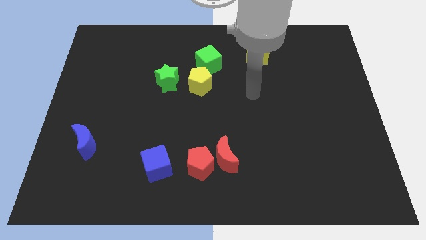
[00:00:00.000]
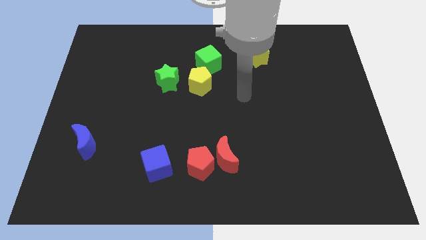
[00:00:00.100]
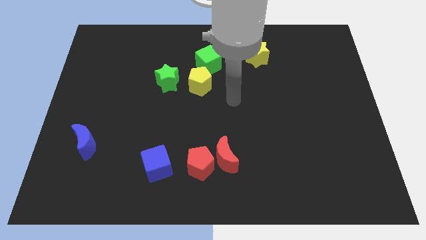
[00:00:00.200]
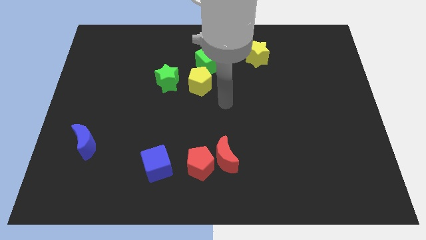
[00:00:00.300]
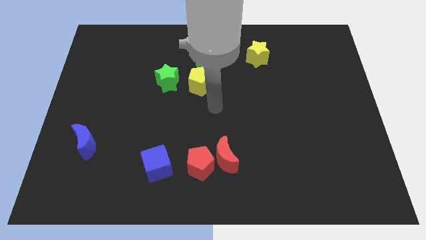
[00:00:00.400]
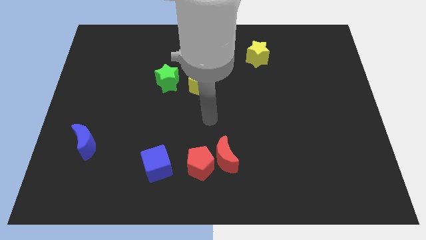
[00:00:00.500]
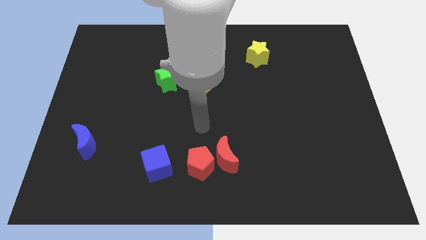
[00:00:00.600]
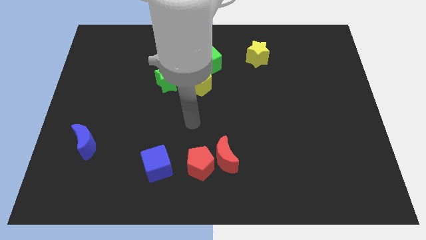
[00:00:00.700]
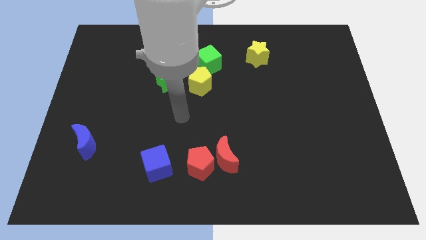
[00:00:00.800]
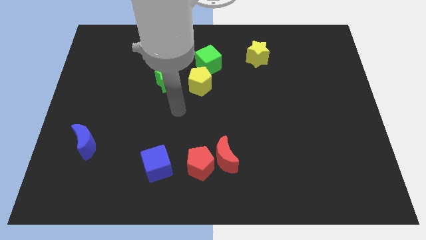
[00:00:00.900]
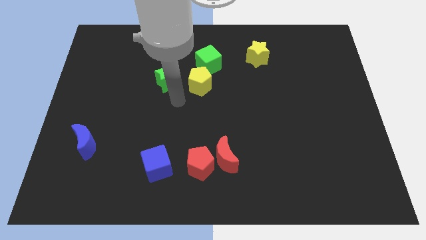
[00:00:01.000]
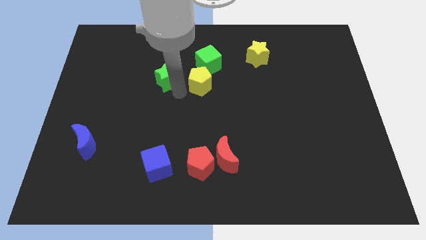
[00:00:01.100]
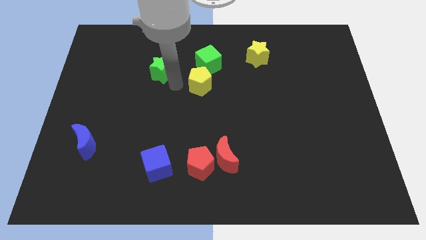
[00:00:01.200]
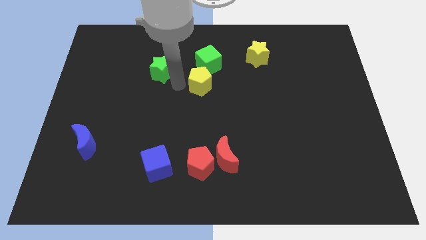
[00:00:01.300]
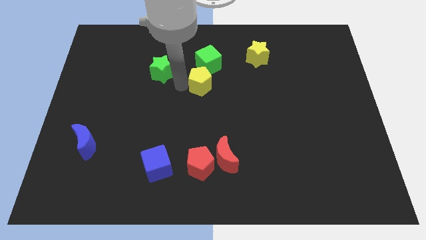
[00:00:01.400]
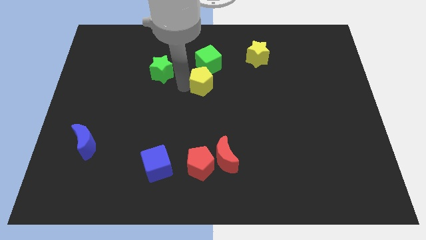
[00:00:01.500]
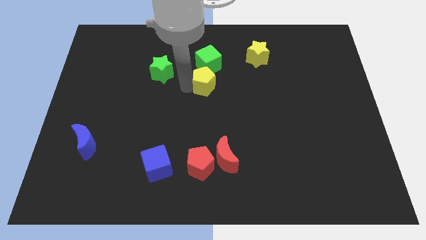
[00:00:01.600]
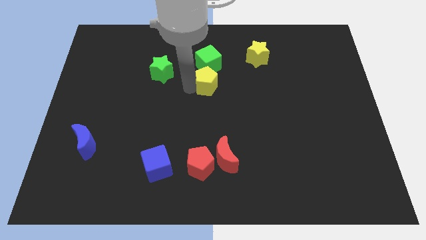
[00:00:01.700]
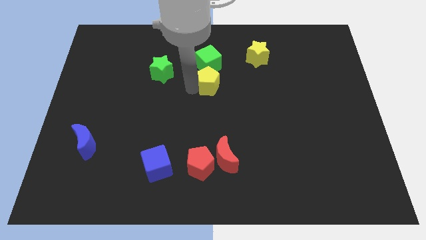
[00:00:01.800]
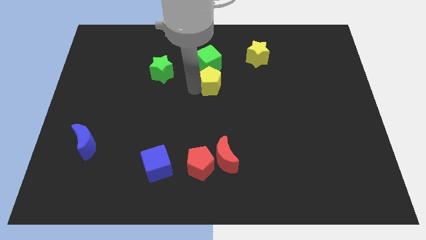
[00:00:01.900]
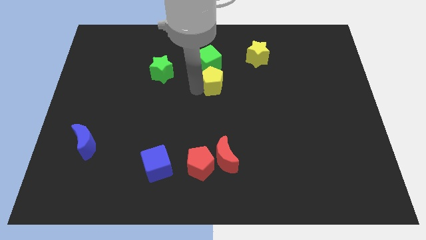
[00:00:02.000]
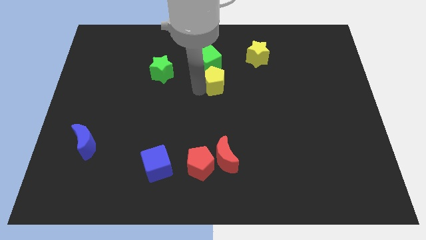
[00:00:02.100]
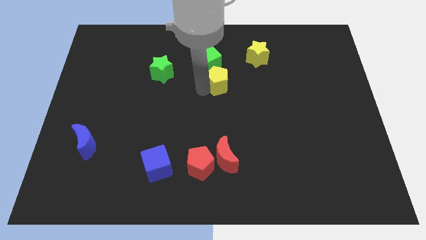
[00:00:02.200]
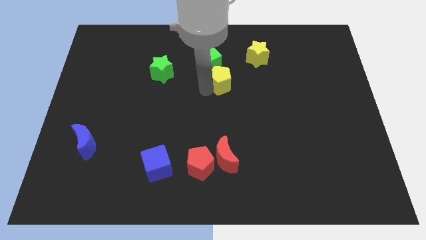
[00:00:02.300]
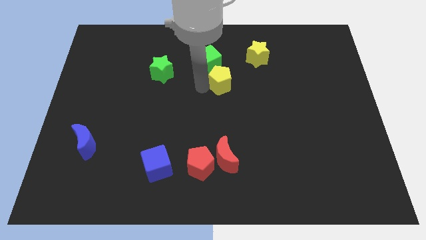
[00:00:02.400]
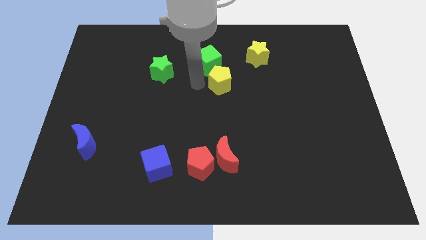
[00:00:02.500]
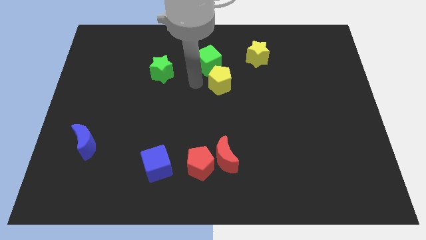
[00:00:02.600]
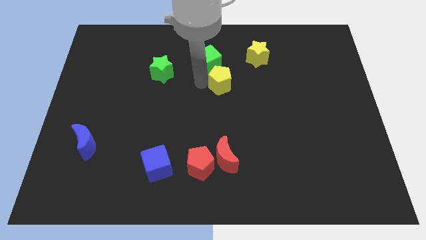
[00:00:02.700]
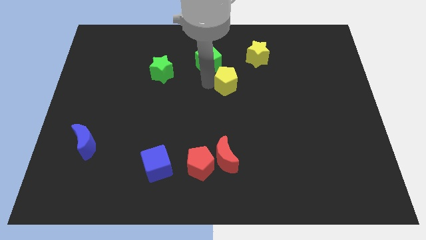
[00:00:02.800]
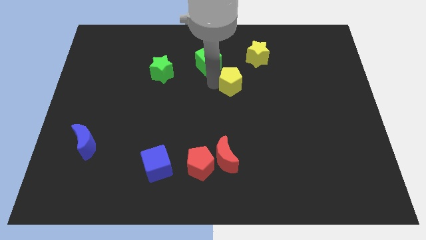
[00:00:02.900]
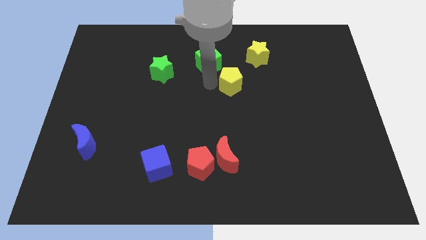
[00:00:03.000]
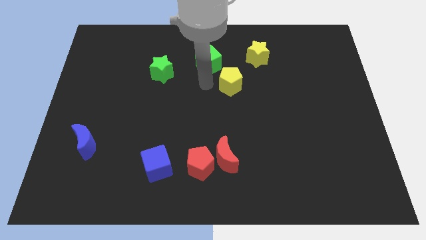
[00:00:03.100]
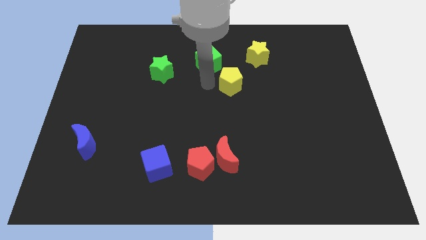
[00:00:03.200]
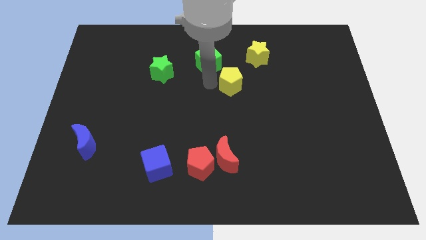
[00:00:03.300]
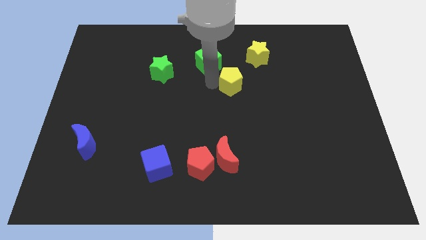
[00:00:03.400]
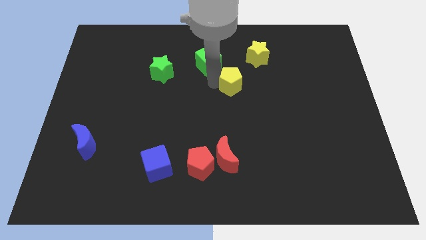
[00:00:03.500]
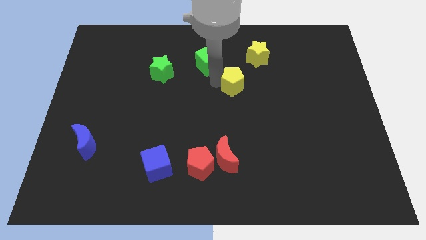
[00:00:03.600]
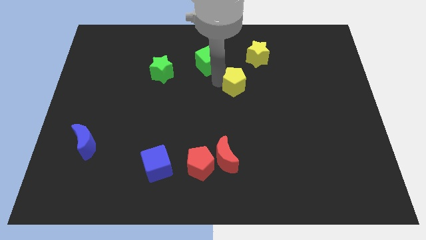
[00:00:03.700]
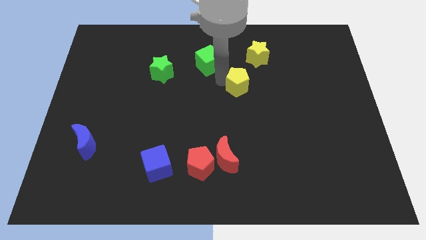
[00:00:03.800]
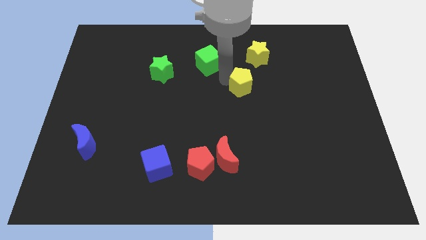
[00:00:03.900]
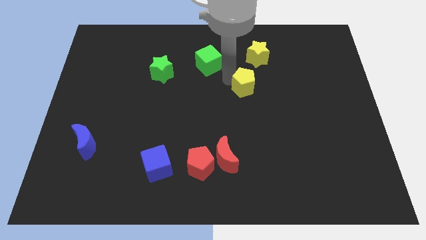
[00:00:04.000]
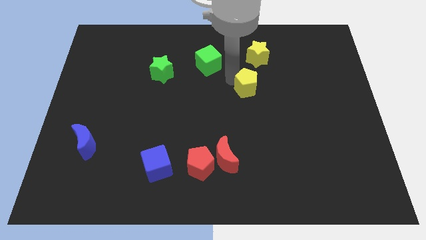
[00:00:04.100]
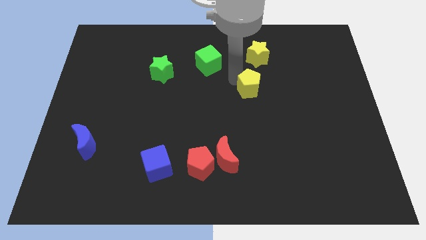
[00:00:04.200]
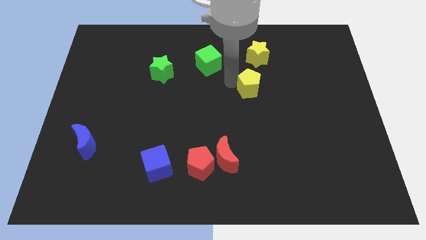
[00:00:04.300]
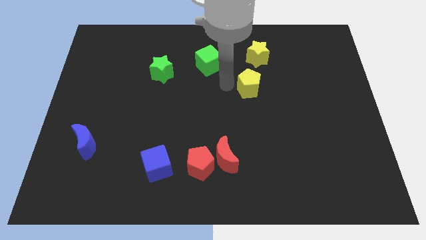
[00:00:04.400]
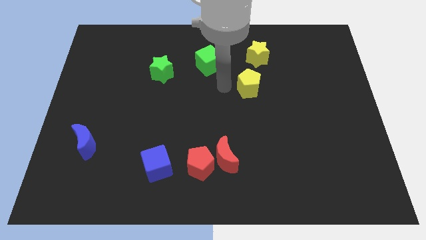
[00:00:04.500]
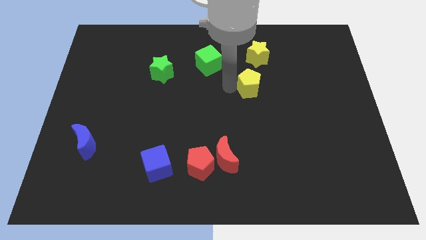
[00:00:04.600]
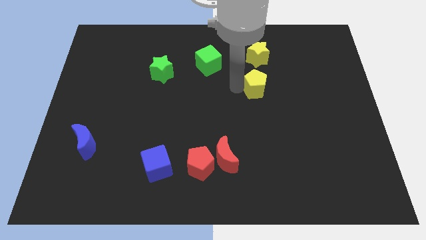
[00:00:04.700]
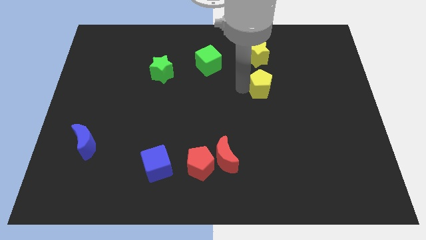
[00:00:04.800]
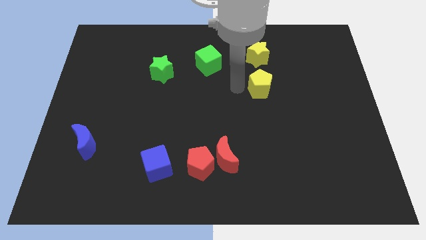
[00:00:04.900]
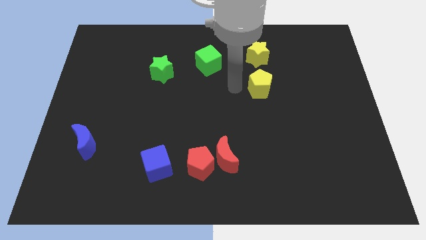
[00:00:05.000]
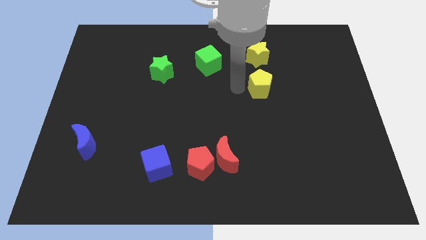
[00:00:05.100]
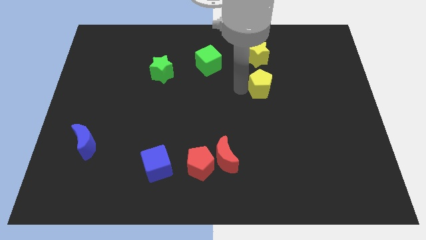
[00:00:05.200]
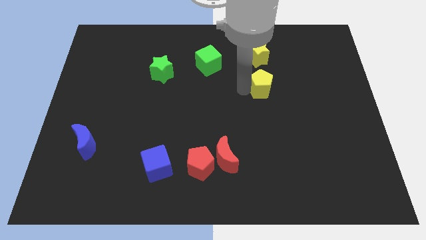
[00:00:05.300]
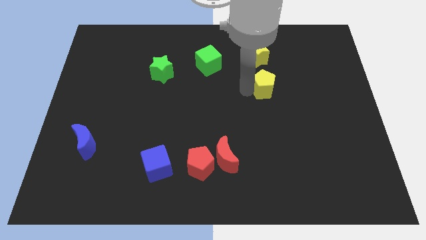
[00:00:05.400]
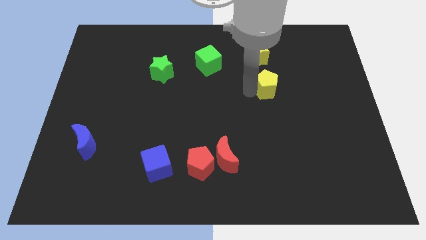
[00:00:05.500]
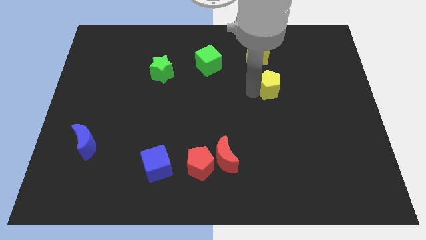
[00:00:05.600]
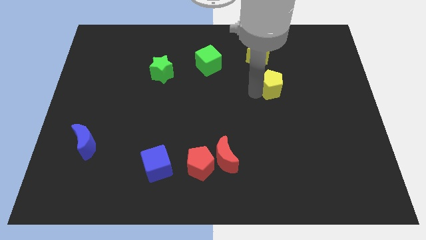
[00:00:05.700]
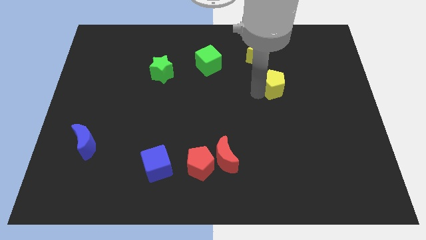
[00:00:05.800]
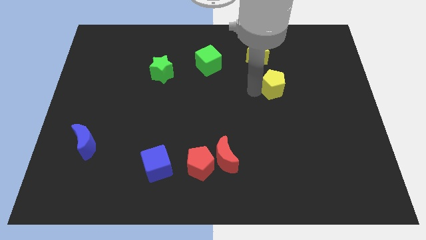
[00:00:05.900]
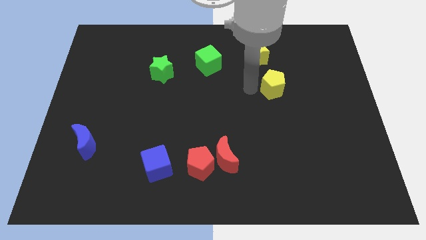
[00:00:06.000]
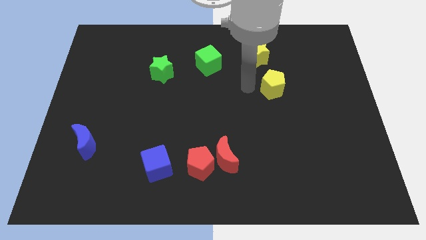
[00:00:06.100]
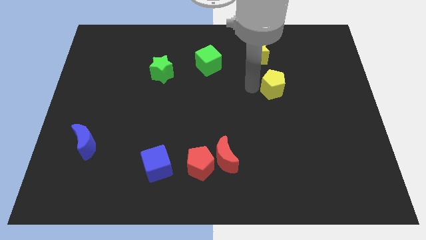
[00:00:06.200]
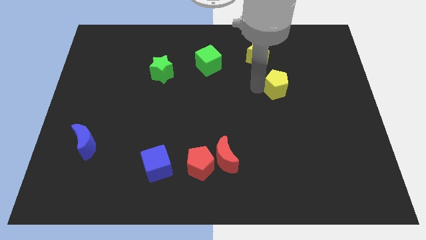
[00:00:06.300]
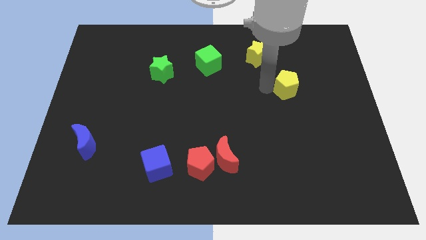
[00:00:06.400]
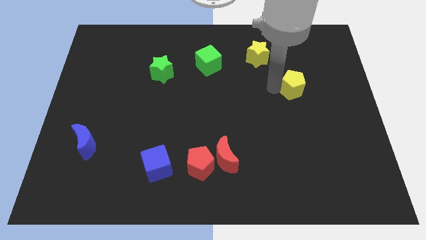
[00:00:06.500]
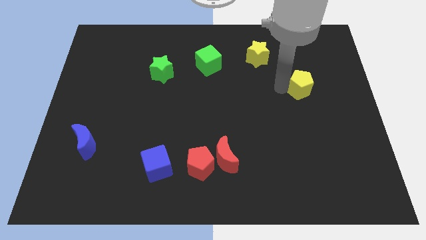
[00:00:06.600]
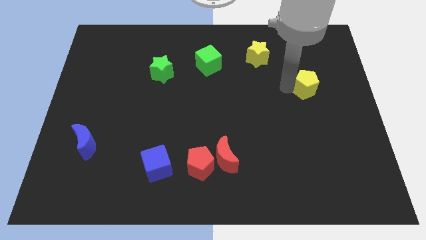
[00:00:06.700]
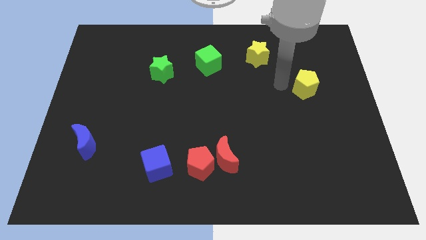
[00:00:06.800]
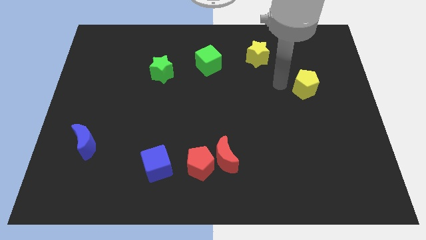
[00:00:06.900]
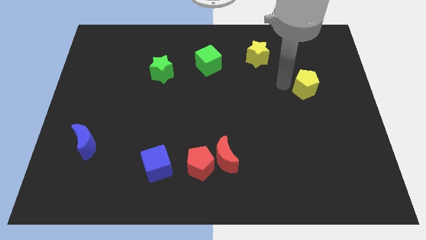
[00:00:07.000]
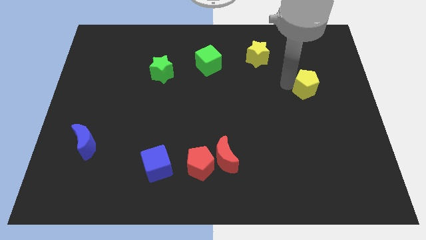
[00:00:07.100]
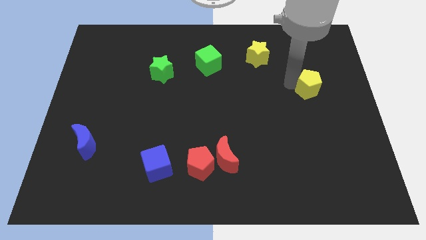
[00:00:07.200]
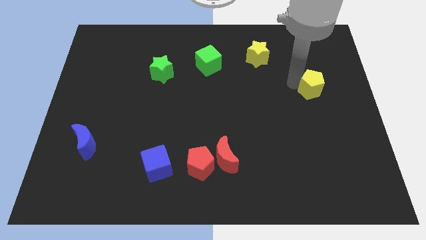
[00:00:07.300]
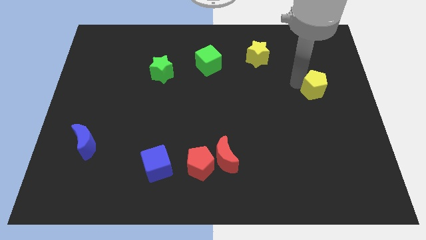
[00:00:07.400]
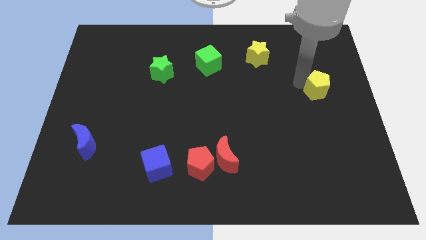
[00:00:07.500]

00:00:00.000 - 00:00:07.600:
move the yellow pentagon to the right side of the board
